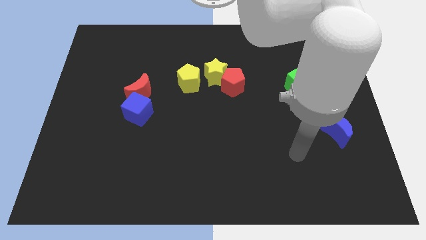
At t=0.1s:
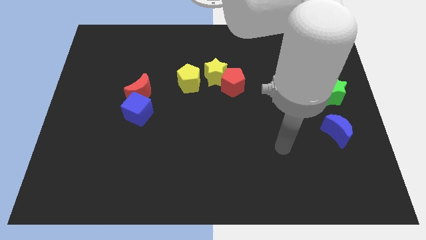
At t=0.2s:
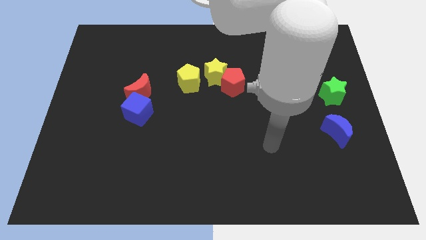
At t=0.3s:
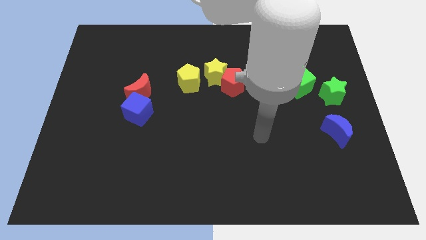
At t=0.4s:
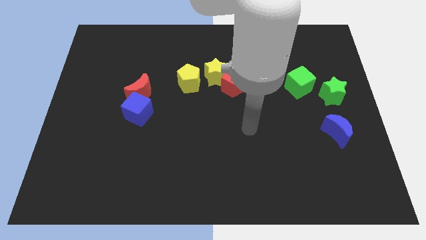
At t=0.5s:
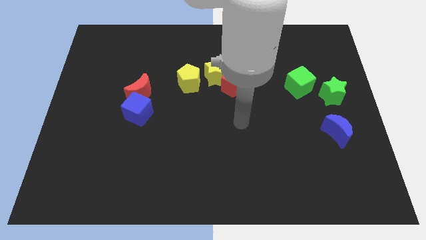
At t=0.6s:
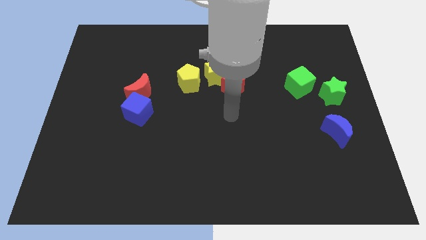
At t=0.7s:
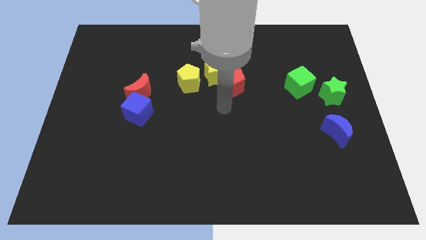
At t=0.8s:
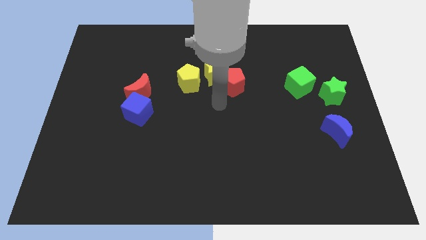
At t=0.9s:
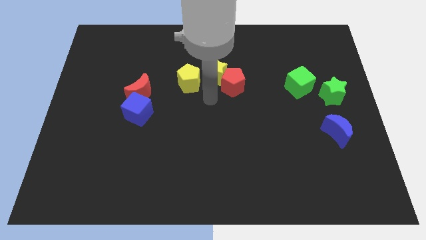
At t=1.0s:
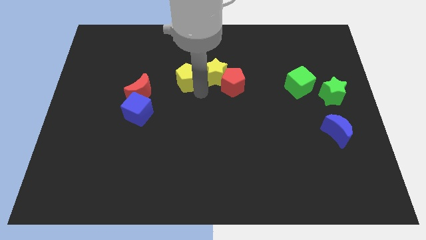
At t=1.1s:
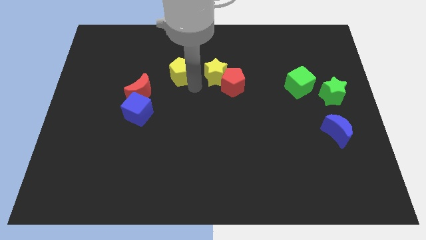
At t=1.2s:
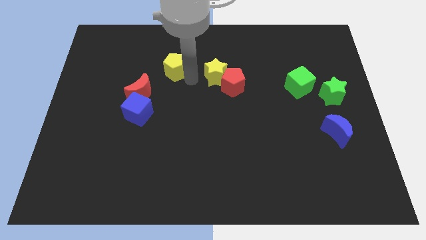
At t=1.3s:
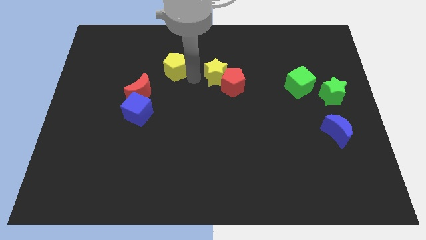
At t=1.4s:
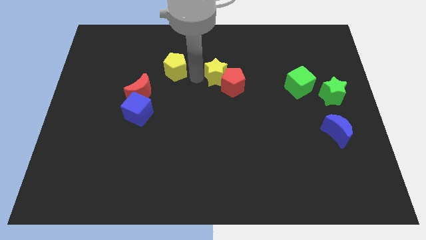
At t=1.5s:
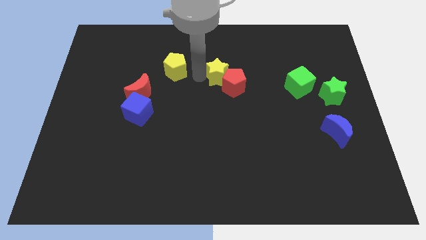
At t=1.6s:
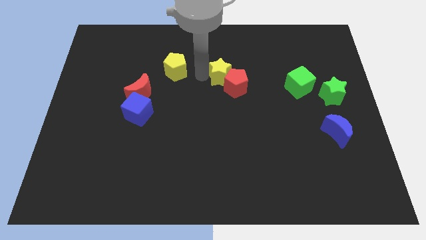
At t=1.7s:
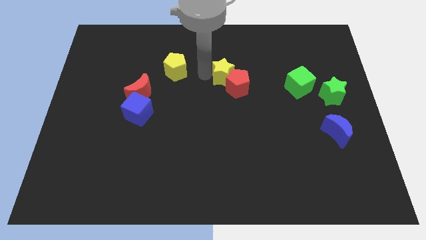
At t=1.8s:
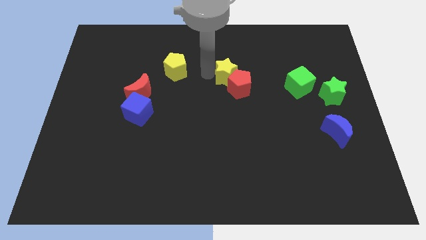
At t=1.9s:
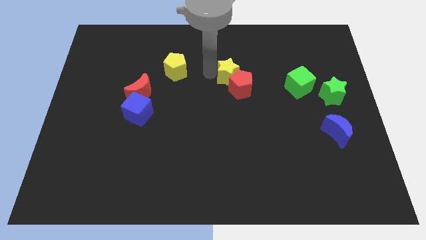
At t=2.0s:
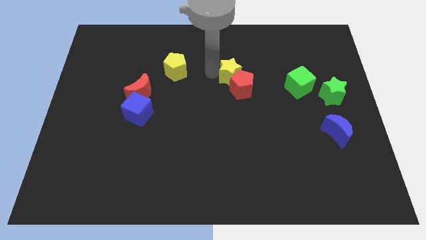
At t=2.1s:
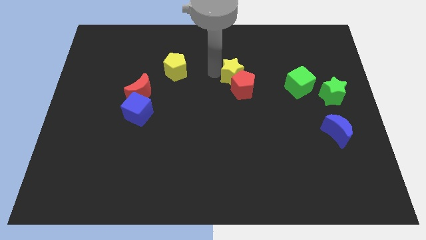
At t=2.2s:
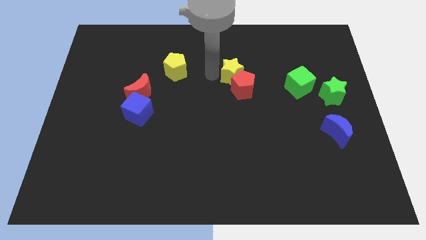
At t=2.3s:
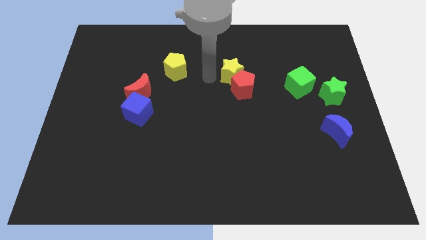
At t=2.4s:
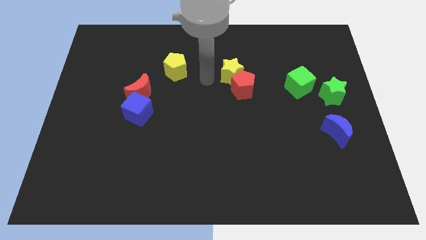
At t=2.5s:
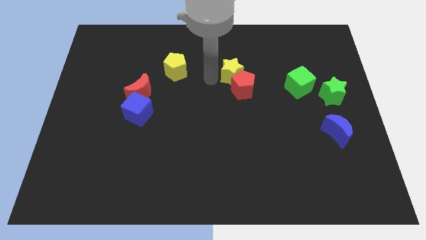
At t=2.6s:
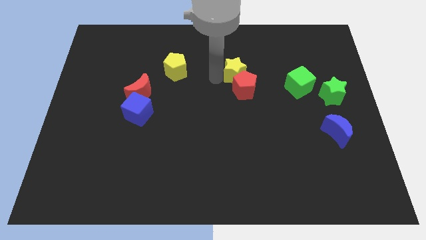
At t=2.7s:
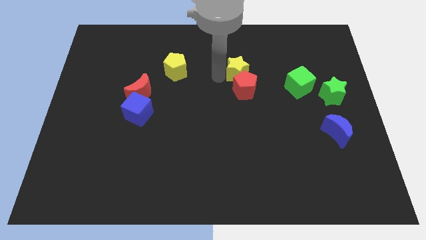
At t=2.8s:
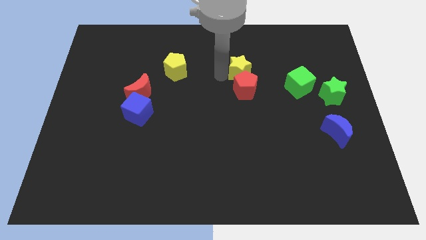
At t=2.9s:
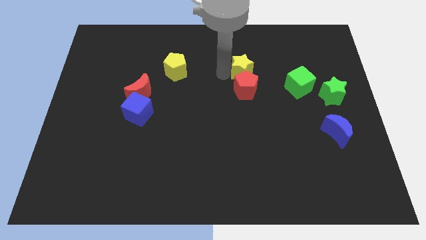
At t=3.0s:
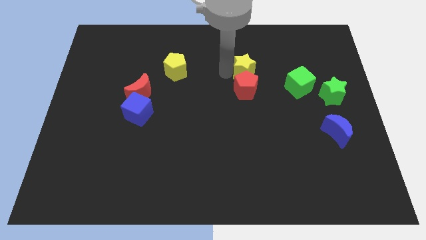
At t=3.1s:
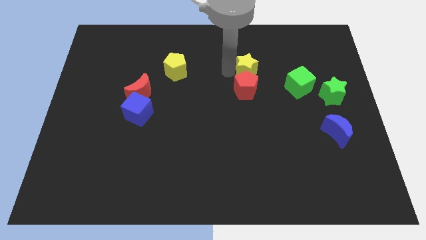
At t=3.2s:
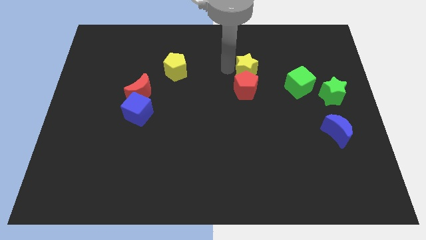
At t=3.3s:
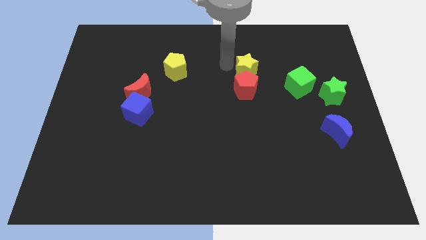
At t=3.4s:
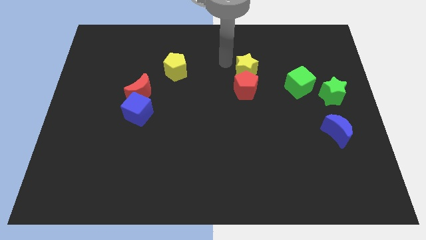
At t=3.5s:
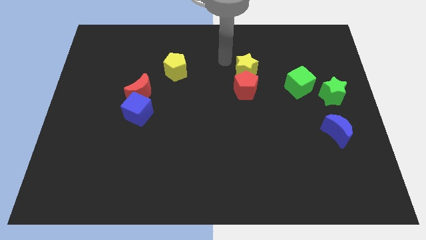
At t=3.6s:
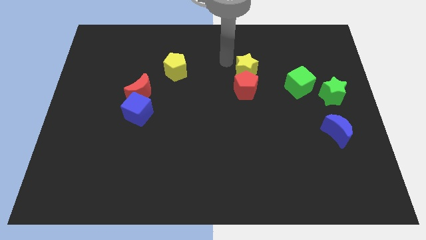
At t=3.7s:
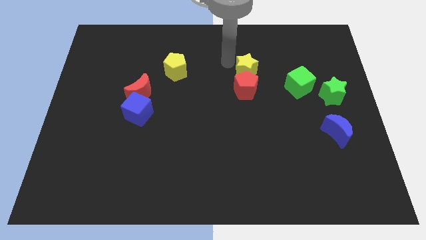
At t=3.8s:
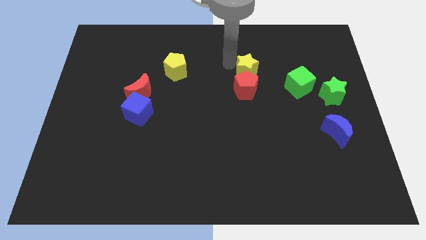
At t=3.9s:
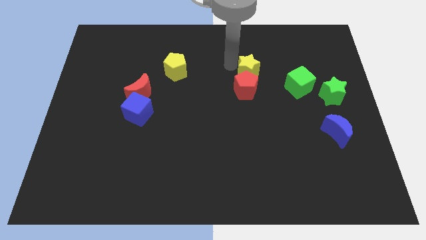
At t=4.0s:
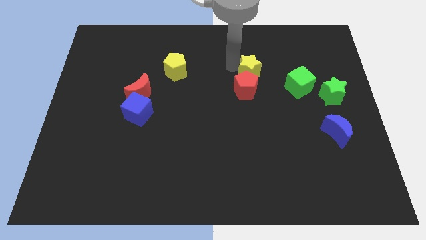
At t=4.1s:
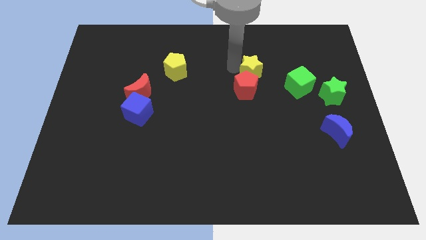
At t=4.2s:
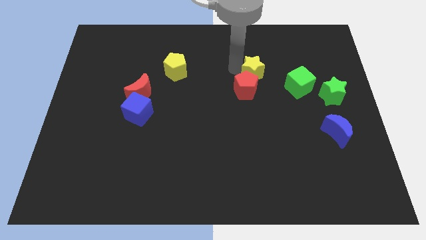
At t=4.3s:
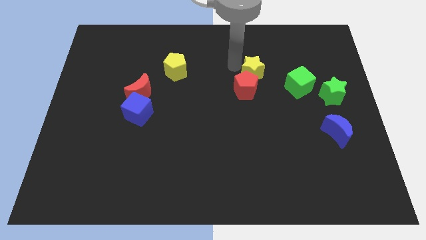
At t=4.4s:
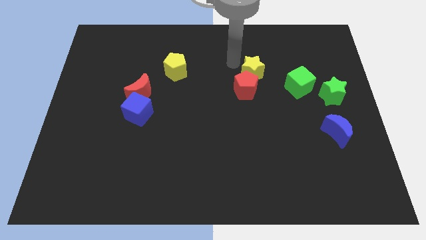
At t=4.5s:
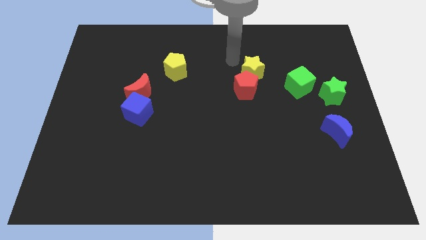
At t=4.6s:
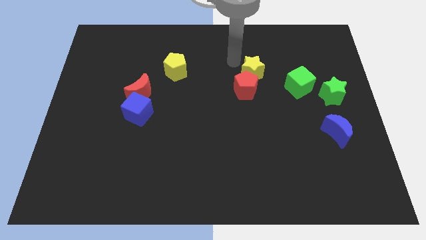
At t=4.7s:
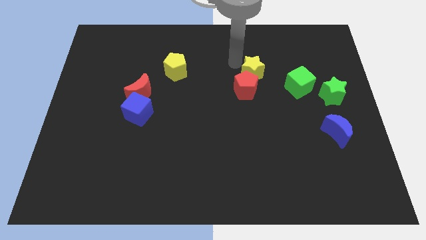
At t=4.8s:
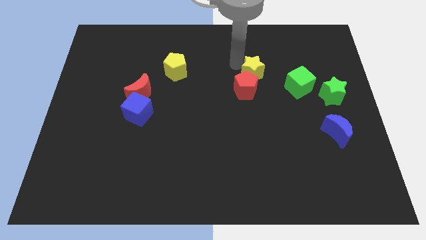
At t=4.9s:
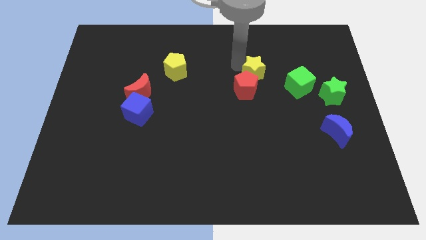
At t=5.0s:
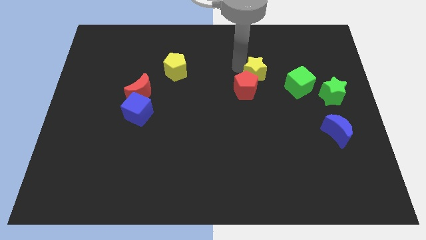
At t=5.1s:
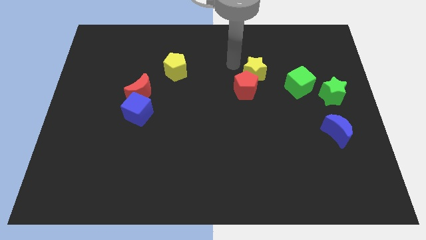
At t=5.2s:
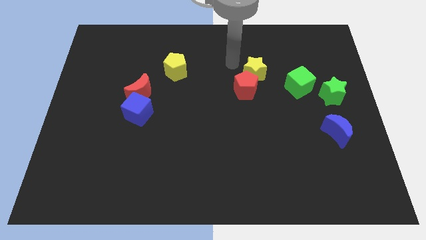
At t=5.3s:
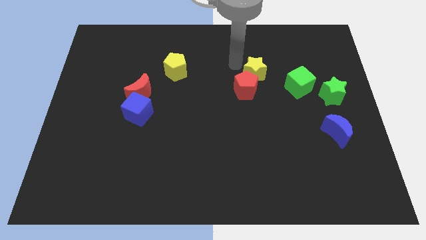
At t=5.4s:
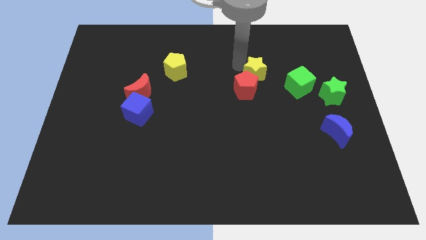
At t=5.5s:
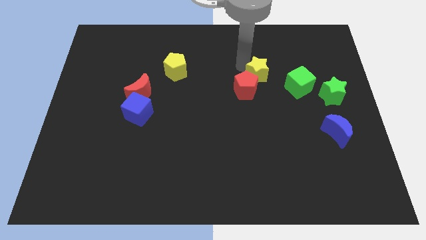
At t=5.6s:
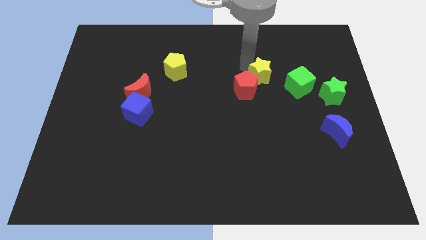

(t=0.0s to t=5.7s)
slide the yellow star to the right side of the red pentagon

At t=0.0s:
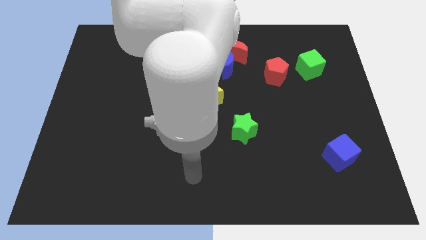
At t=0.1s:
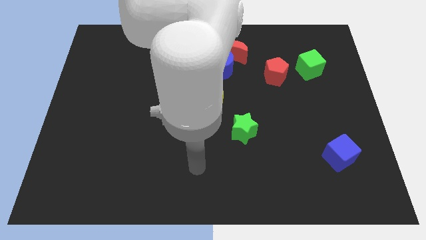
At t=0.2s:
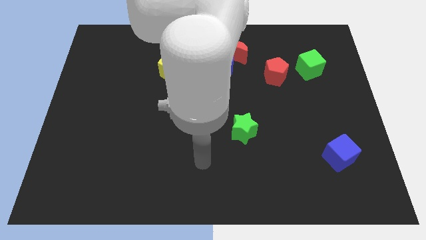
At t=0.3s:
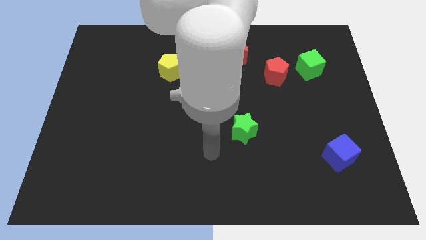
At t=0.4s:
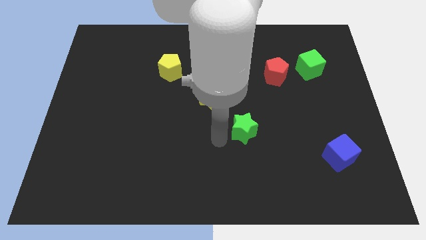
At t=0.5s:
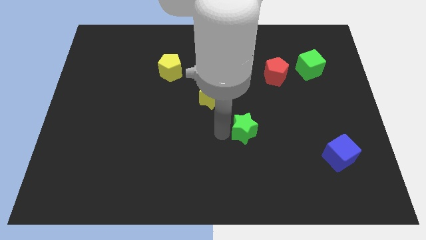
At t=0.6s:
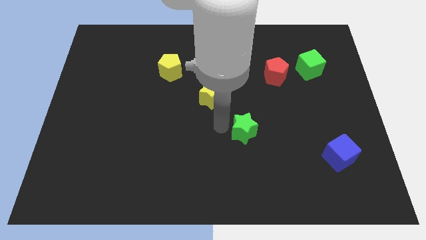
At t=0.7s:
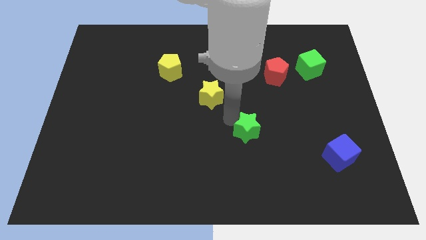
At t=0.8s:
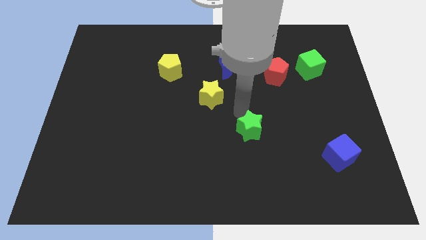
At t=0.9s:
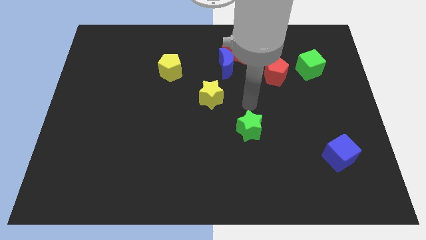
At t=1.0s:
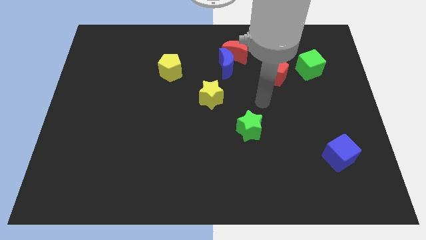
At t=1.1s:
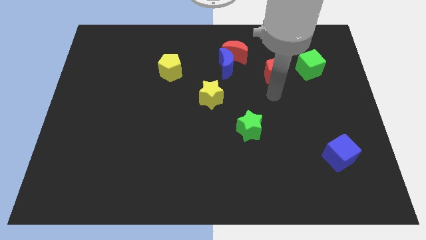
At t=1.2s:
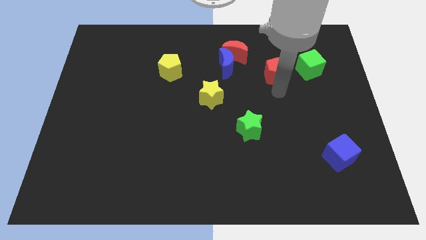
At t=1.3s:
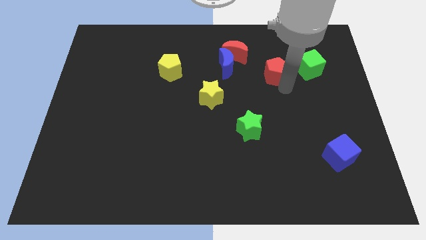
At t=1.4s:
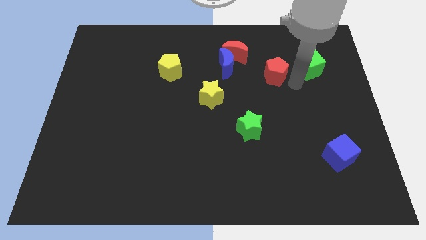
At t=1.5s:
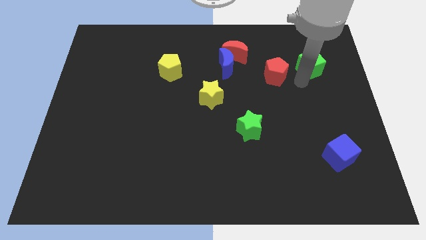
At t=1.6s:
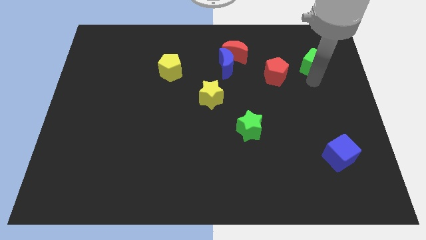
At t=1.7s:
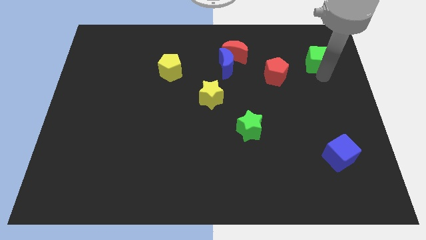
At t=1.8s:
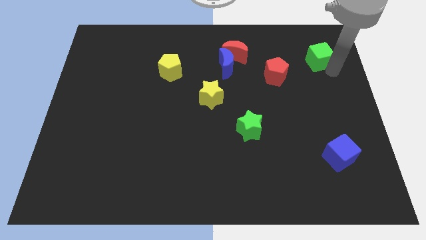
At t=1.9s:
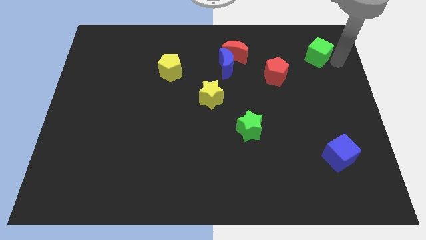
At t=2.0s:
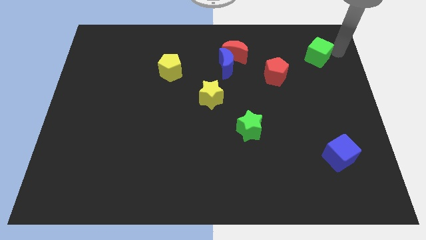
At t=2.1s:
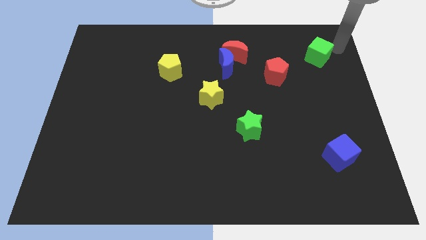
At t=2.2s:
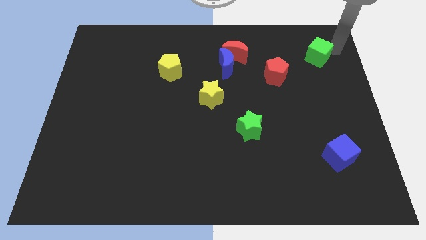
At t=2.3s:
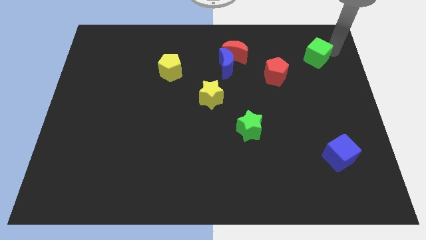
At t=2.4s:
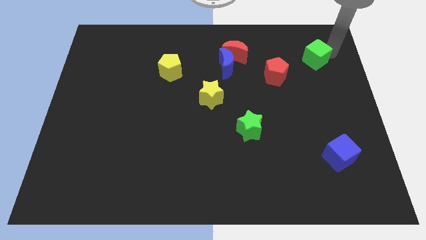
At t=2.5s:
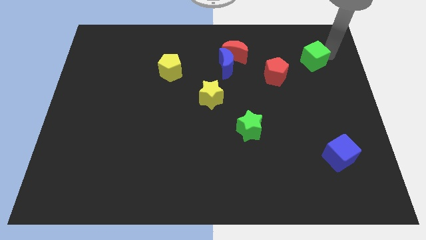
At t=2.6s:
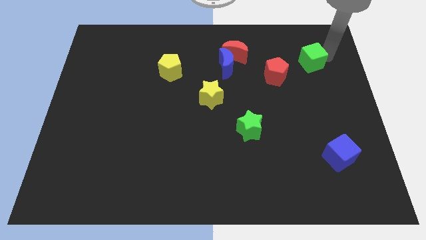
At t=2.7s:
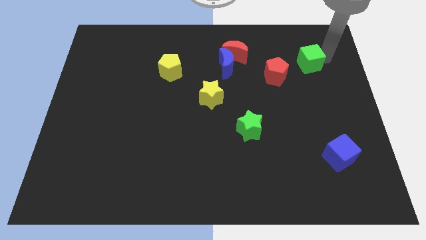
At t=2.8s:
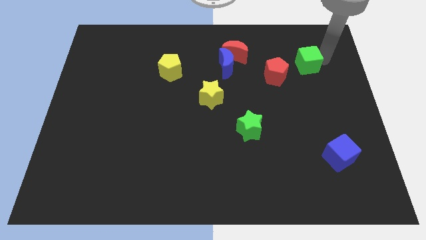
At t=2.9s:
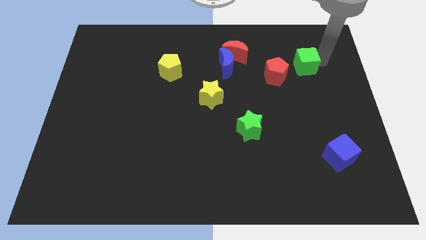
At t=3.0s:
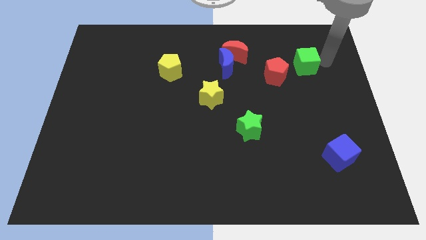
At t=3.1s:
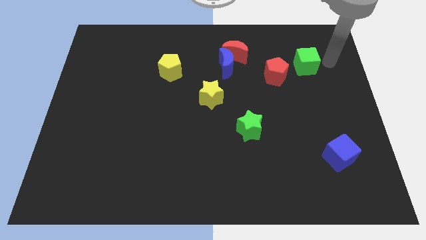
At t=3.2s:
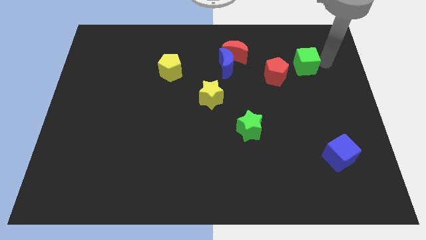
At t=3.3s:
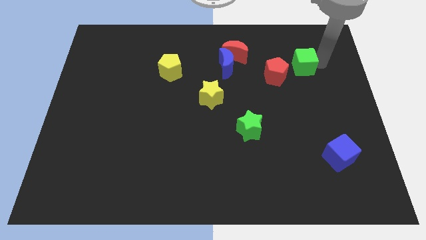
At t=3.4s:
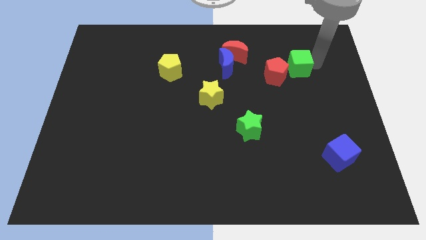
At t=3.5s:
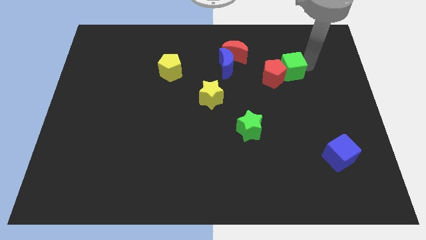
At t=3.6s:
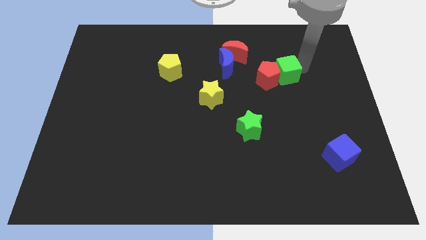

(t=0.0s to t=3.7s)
put the green cube to the right side of the blue moon
